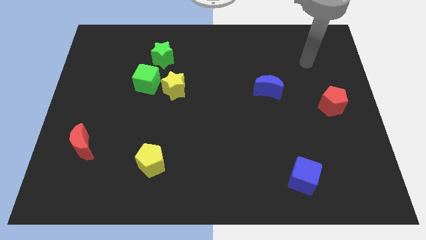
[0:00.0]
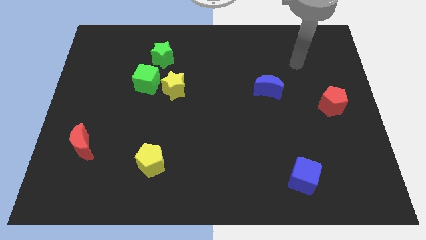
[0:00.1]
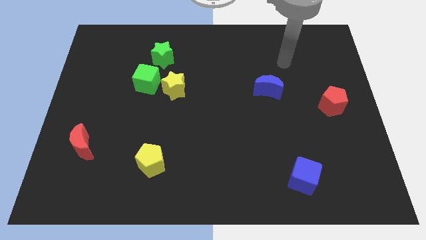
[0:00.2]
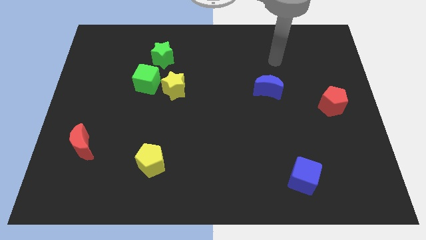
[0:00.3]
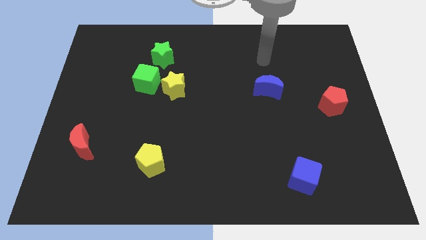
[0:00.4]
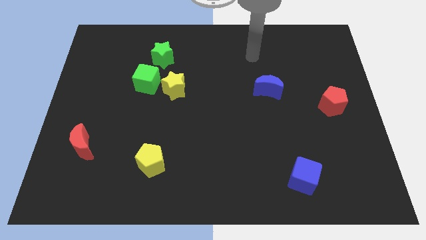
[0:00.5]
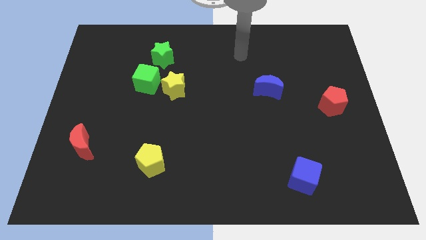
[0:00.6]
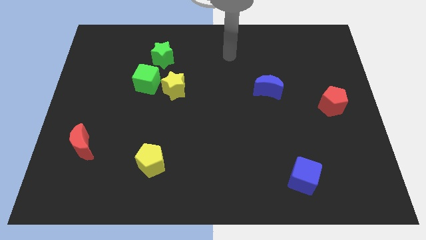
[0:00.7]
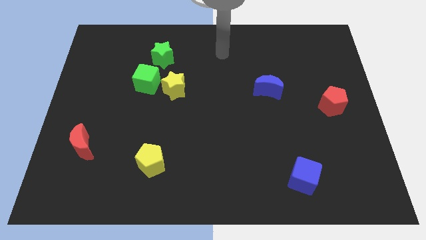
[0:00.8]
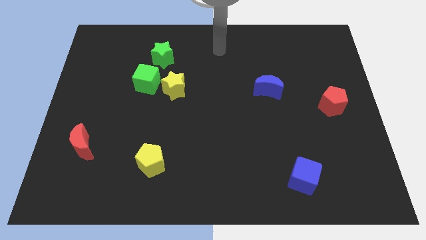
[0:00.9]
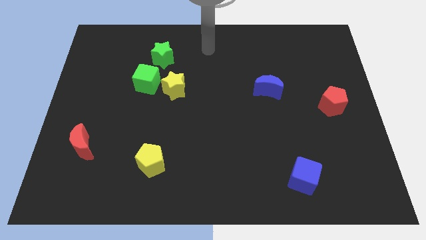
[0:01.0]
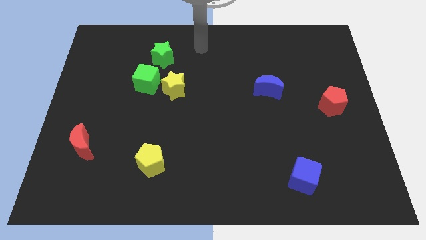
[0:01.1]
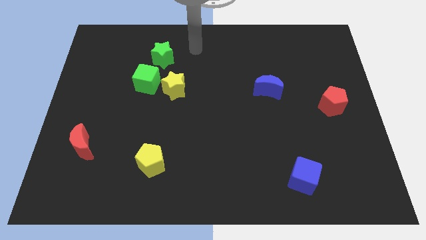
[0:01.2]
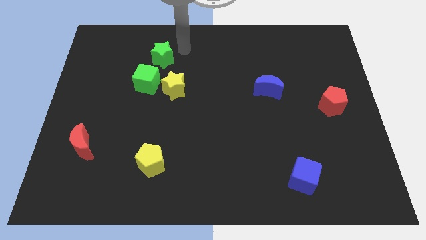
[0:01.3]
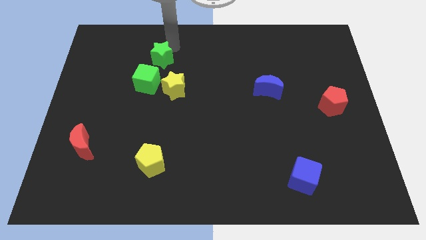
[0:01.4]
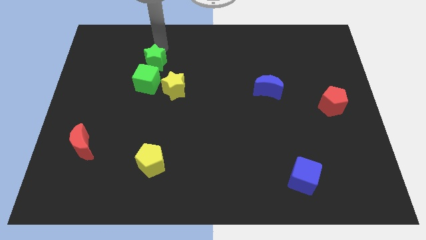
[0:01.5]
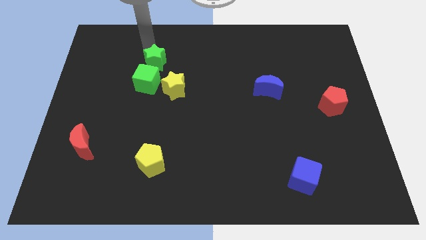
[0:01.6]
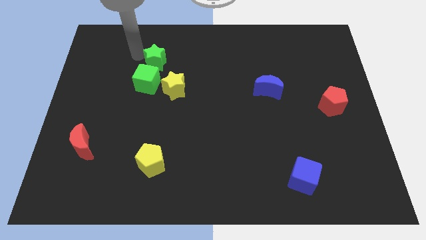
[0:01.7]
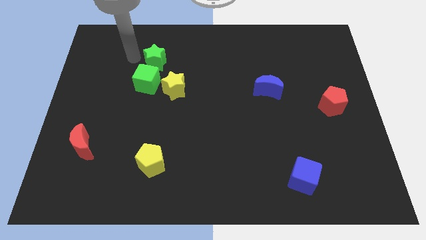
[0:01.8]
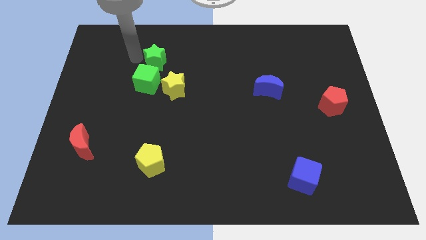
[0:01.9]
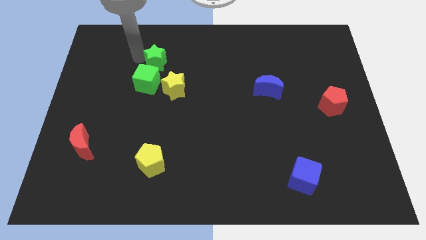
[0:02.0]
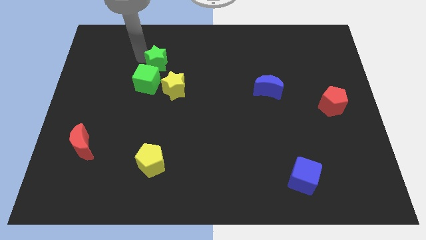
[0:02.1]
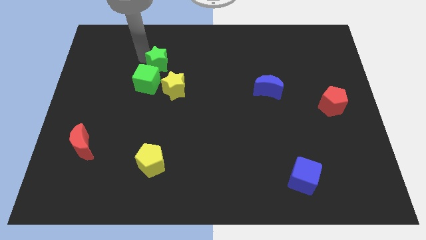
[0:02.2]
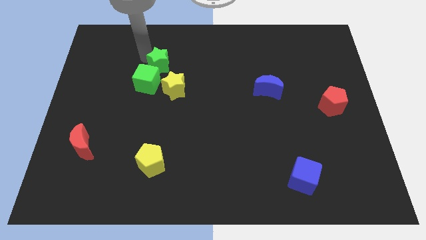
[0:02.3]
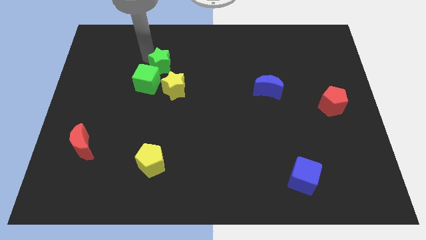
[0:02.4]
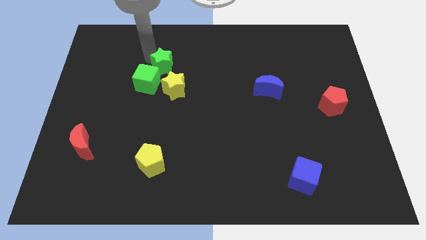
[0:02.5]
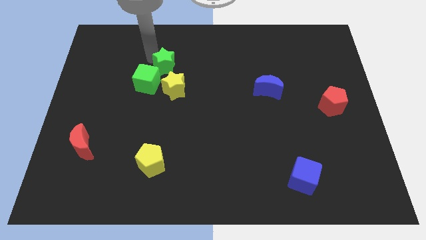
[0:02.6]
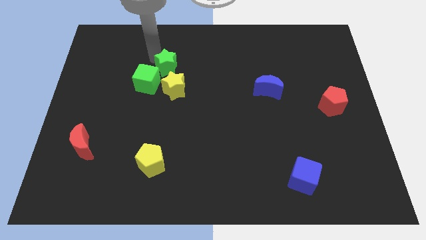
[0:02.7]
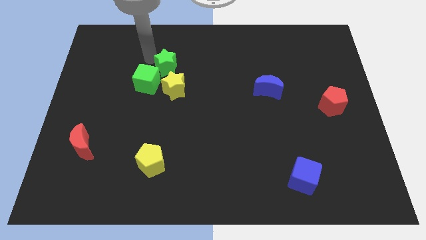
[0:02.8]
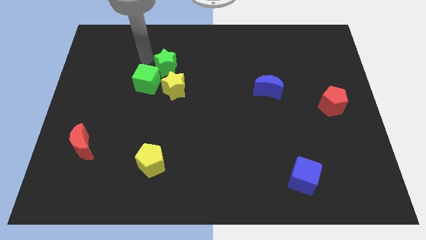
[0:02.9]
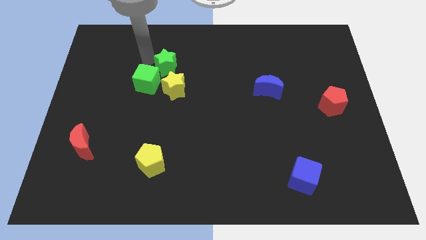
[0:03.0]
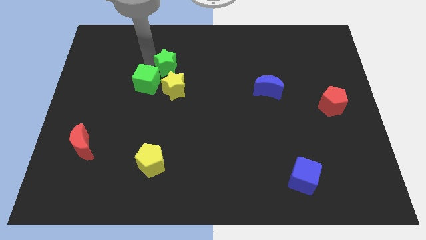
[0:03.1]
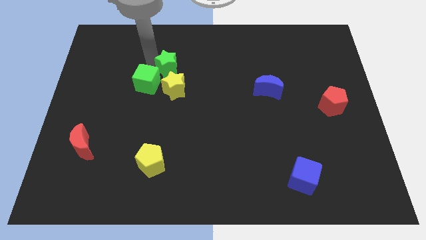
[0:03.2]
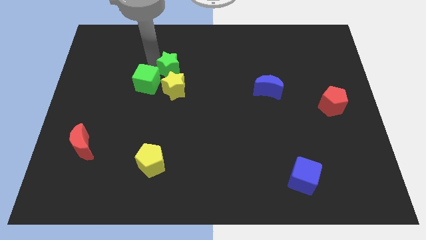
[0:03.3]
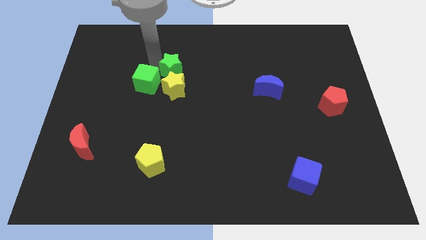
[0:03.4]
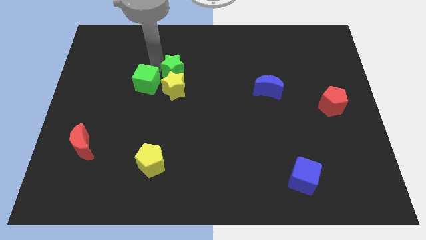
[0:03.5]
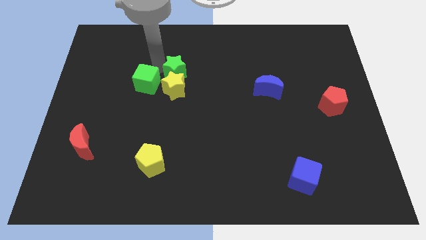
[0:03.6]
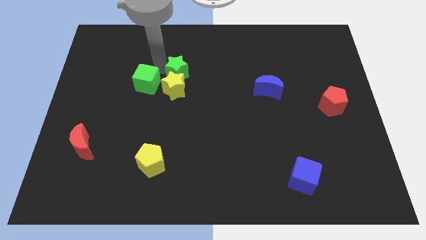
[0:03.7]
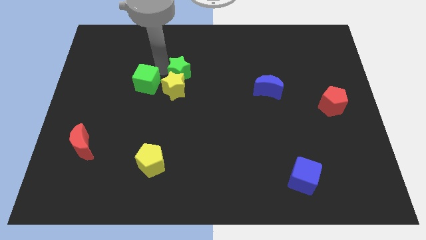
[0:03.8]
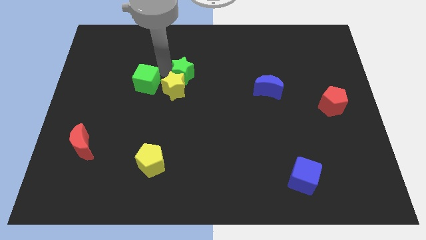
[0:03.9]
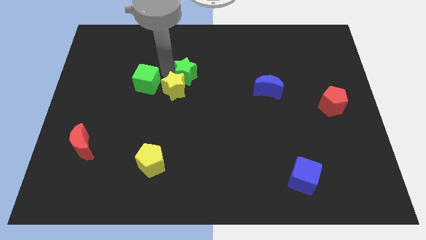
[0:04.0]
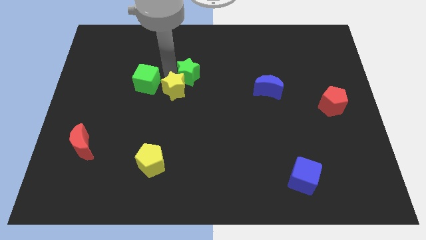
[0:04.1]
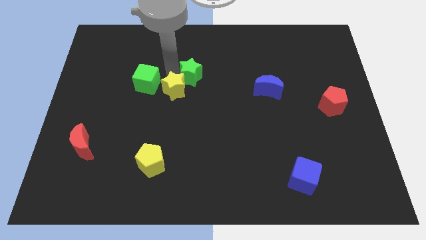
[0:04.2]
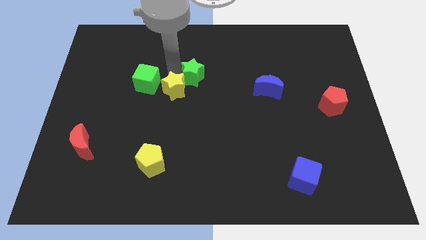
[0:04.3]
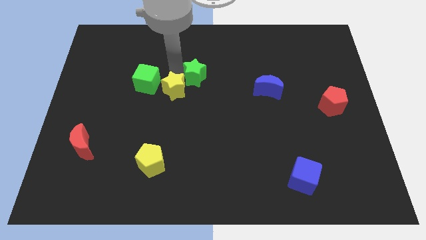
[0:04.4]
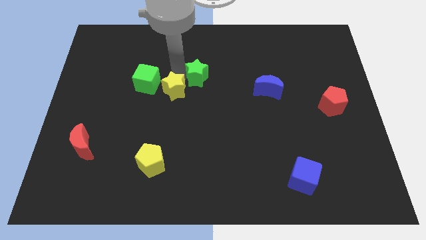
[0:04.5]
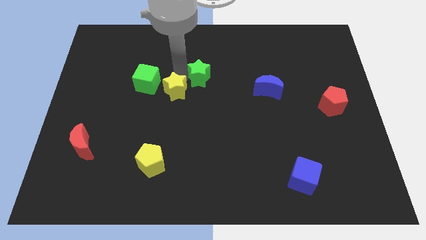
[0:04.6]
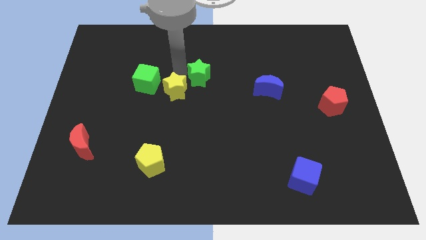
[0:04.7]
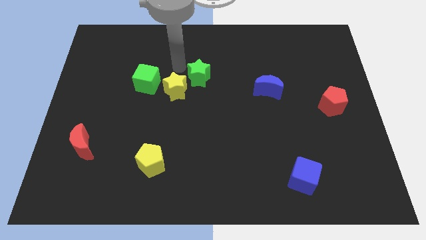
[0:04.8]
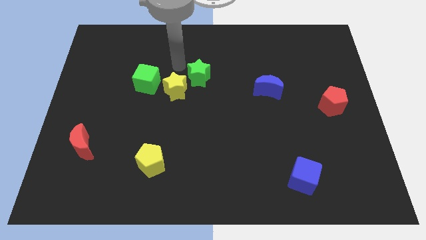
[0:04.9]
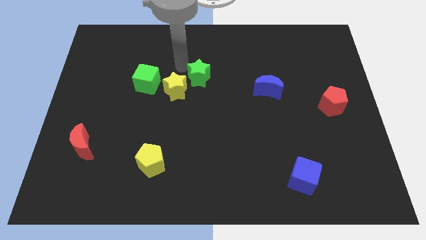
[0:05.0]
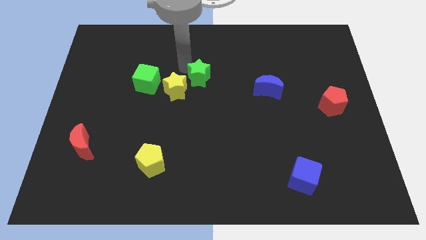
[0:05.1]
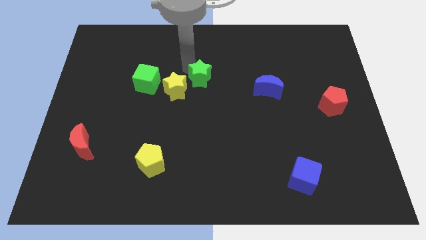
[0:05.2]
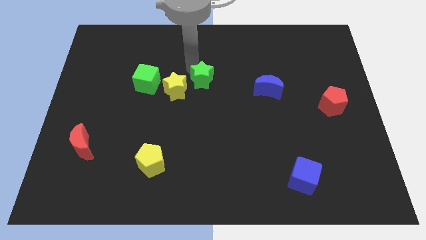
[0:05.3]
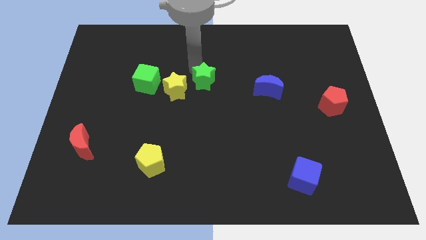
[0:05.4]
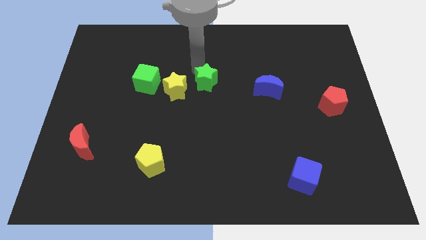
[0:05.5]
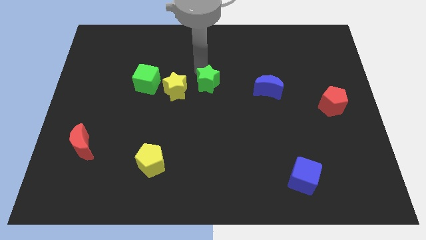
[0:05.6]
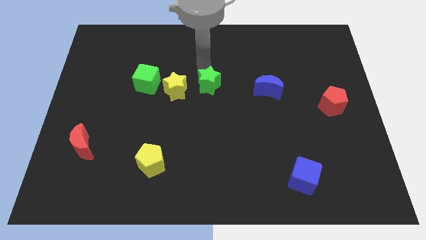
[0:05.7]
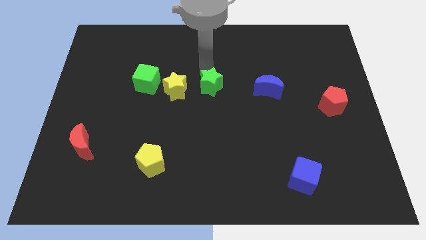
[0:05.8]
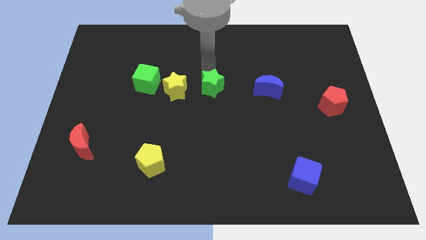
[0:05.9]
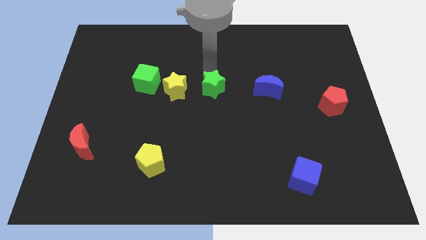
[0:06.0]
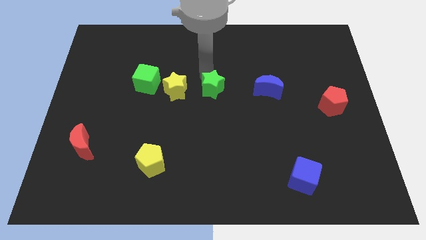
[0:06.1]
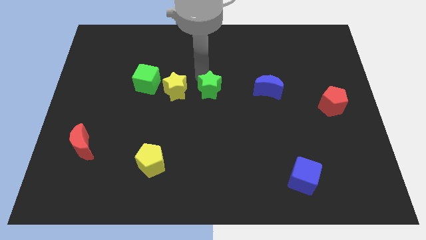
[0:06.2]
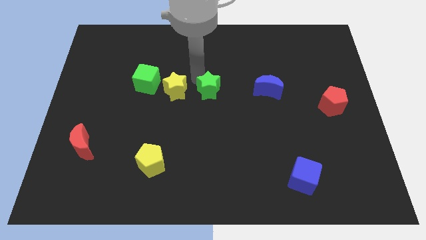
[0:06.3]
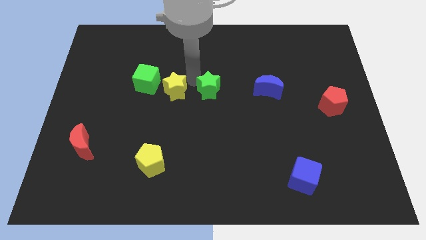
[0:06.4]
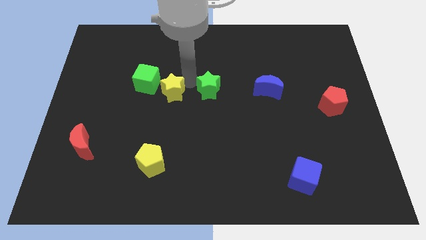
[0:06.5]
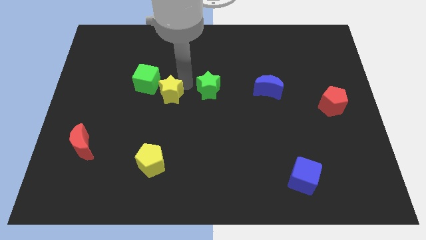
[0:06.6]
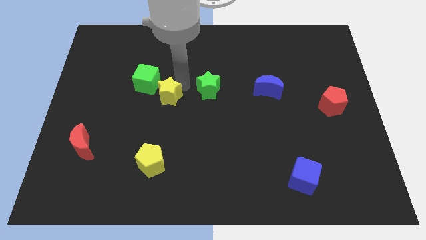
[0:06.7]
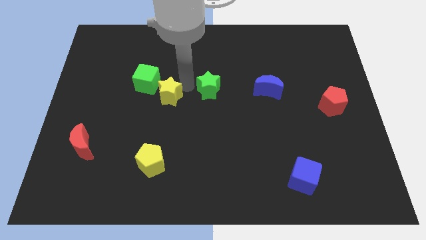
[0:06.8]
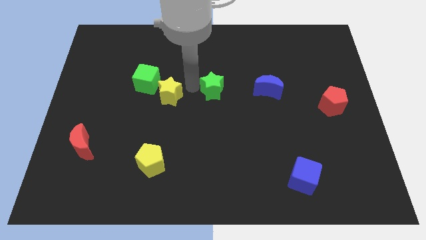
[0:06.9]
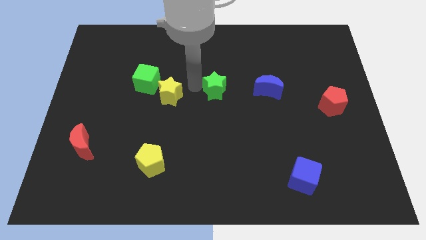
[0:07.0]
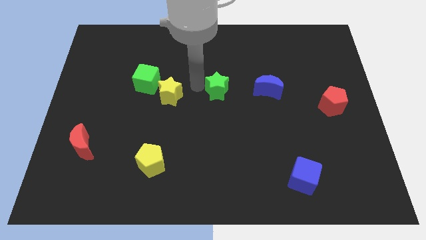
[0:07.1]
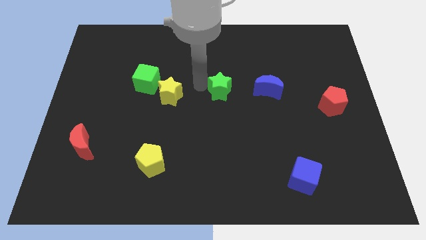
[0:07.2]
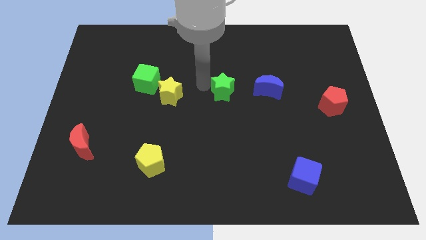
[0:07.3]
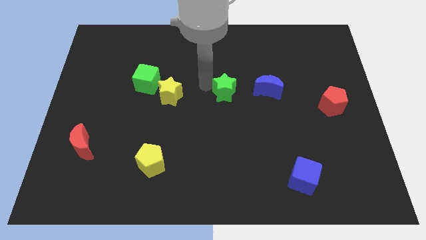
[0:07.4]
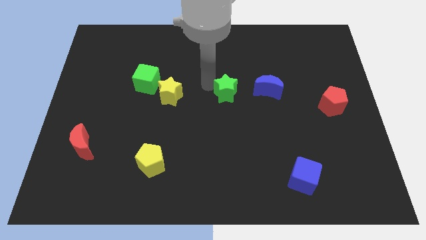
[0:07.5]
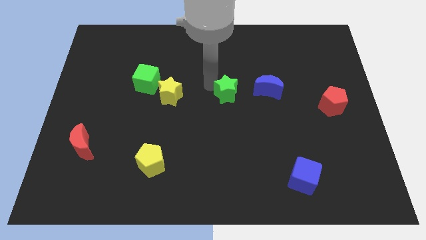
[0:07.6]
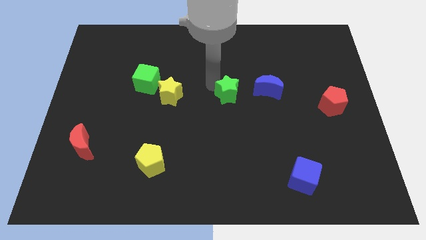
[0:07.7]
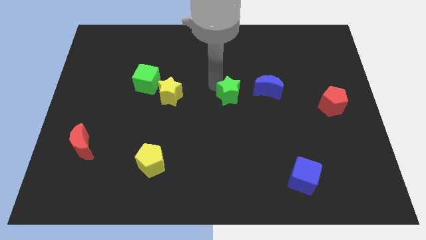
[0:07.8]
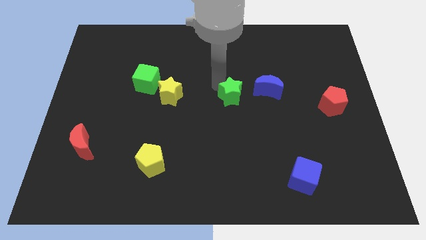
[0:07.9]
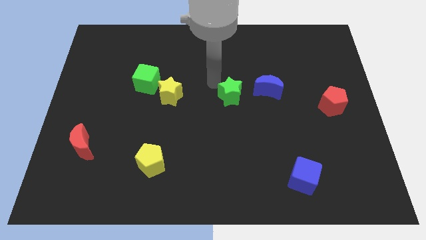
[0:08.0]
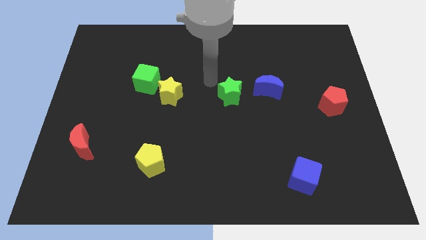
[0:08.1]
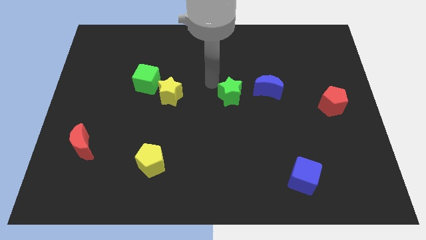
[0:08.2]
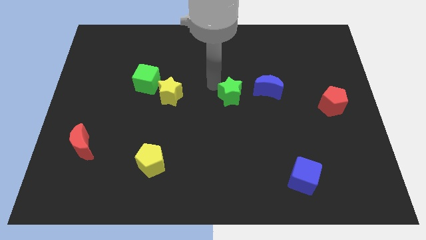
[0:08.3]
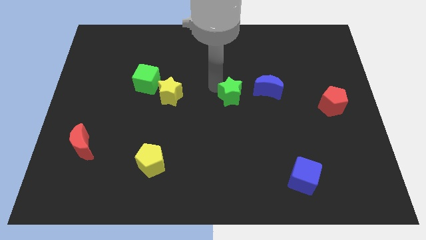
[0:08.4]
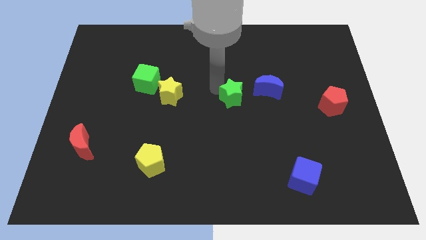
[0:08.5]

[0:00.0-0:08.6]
push the green star to the bottom left of the blue moon
